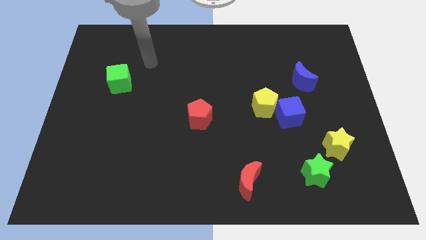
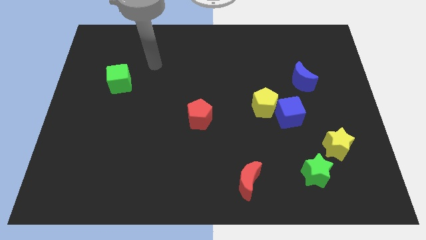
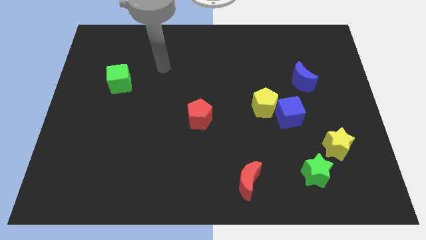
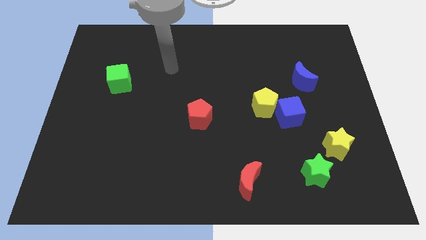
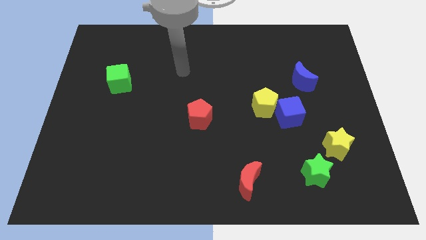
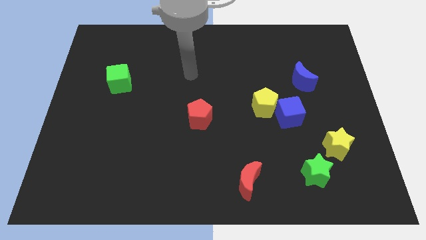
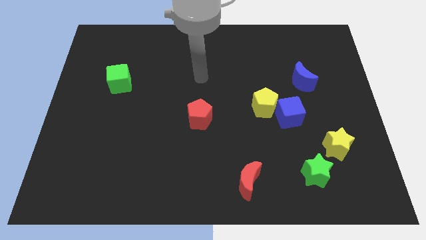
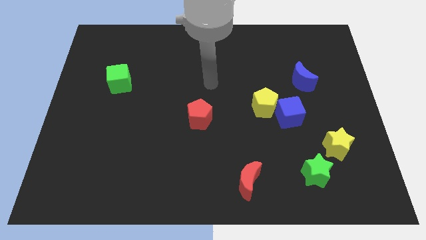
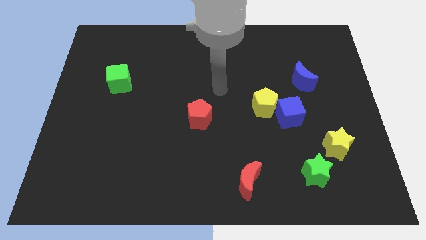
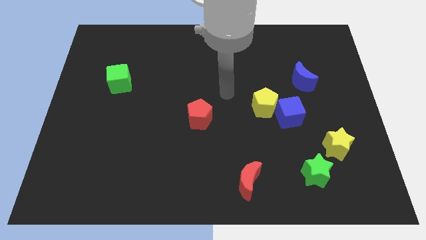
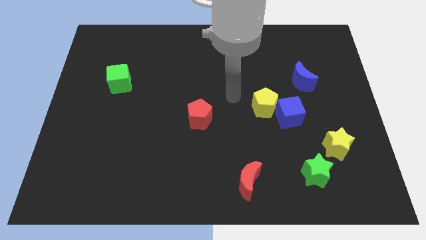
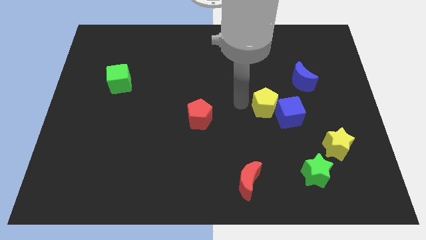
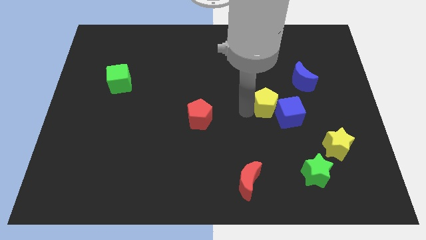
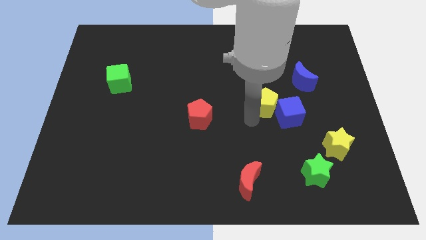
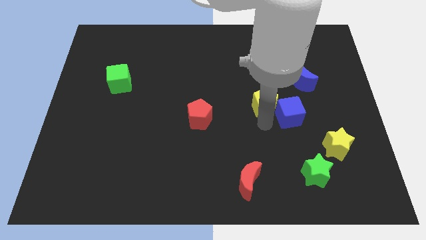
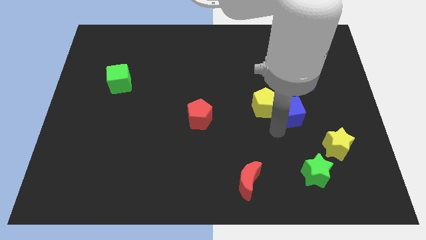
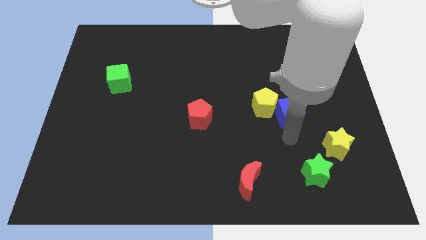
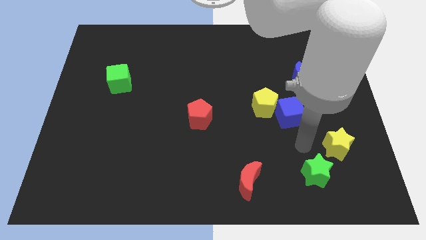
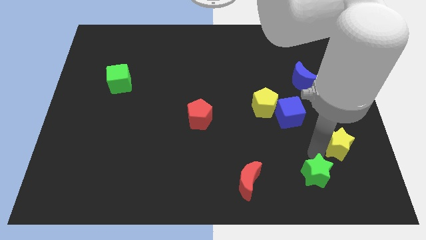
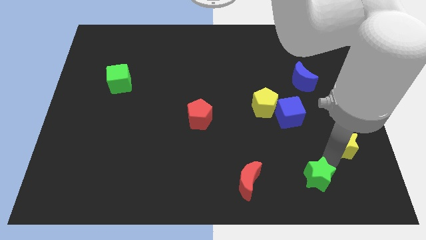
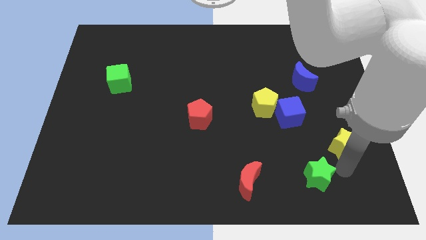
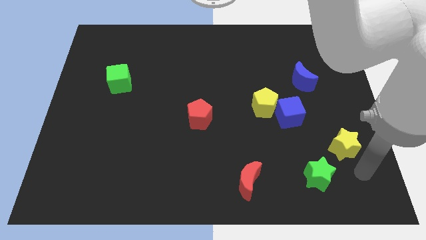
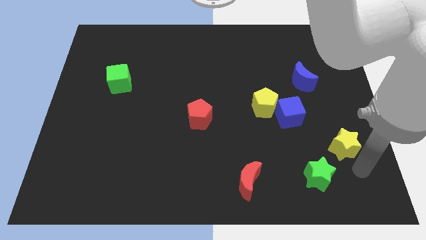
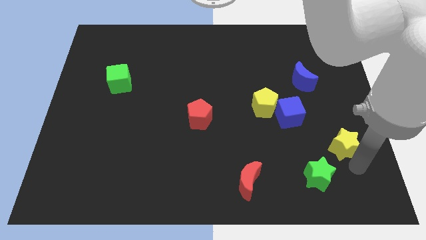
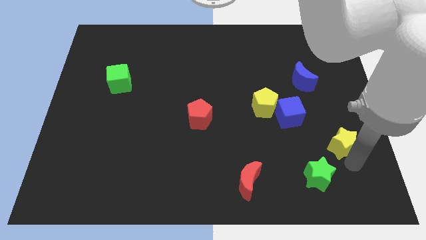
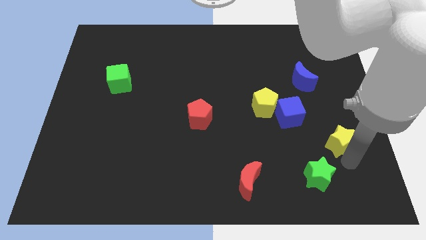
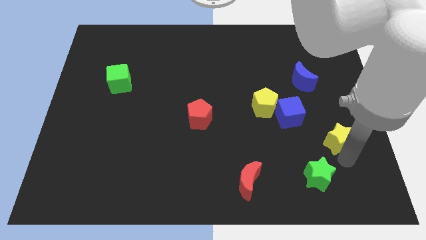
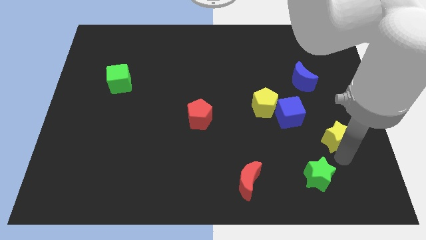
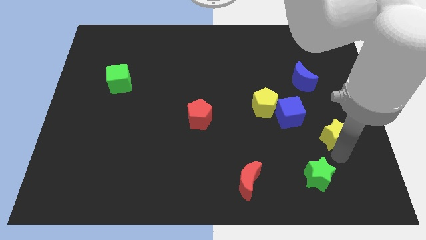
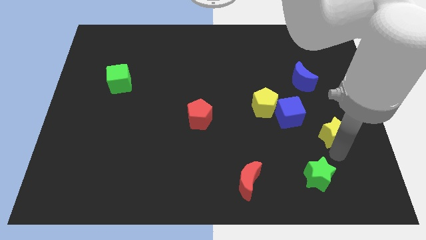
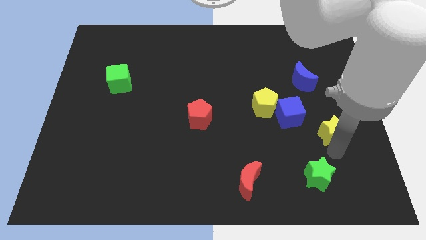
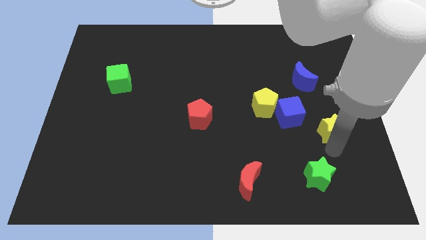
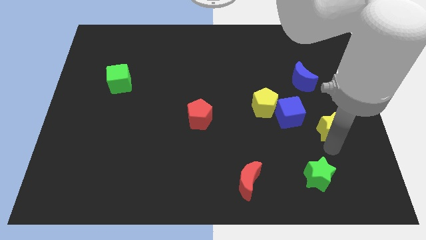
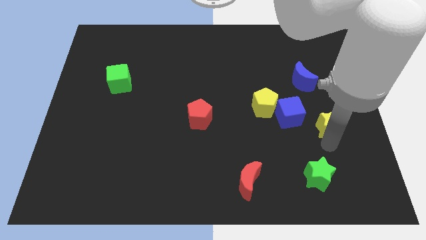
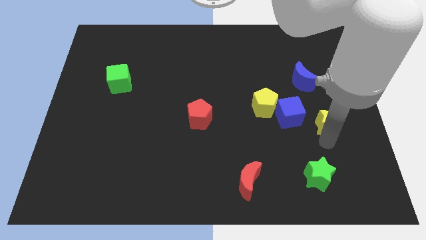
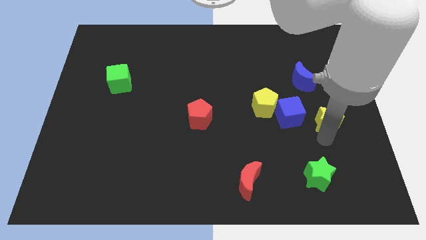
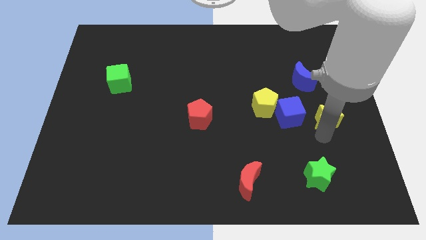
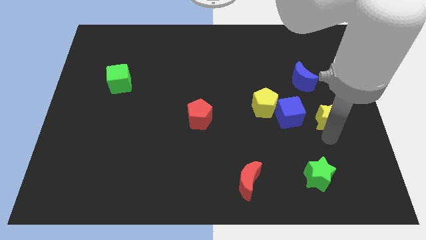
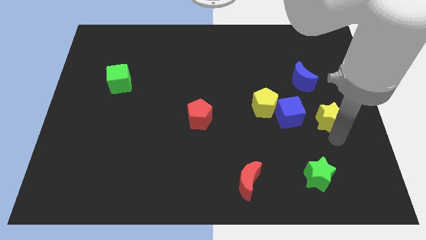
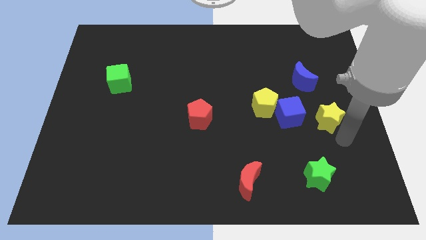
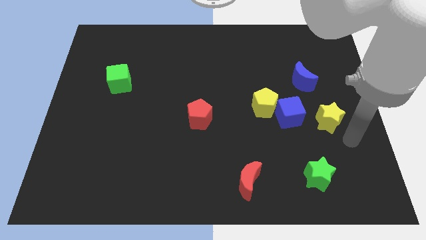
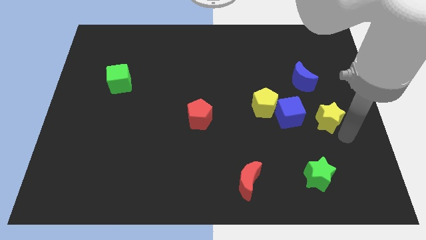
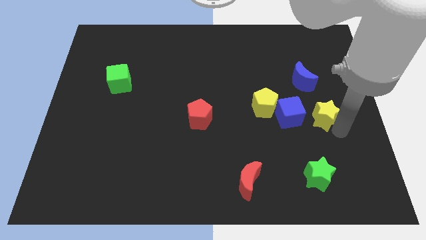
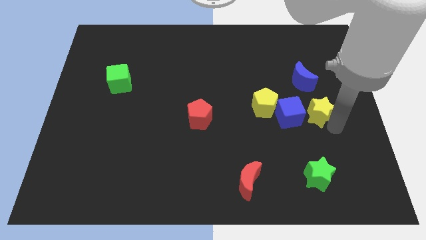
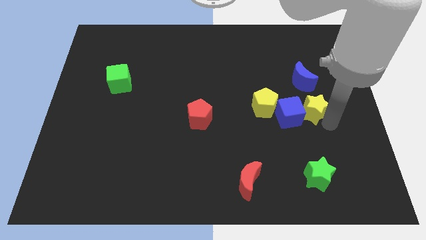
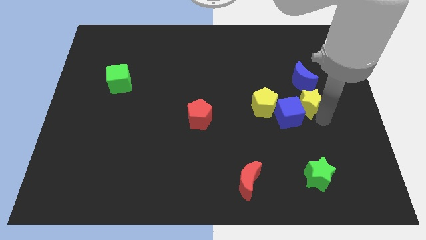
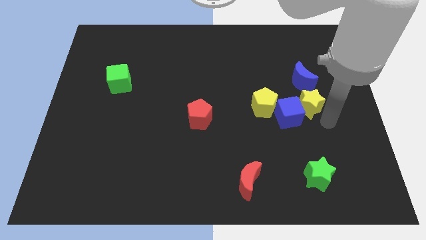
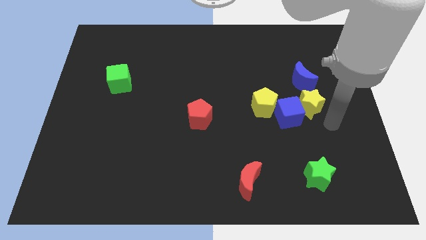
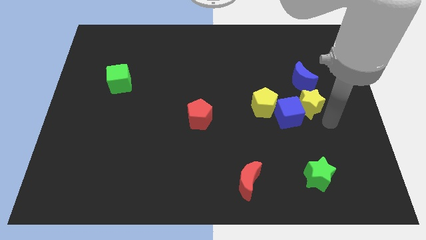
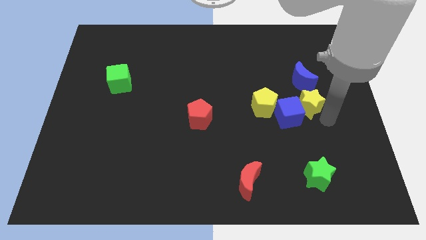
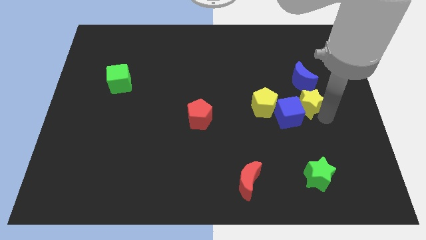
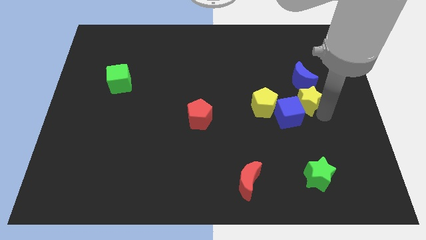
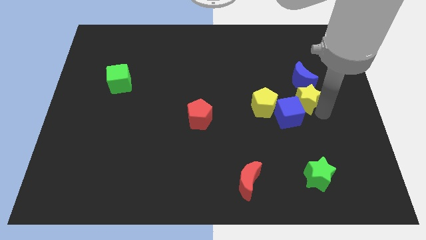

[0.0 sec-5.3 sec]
push the yellow star to the top of the blue cube
